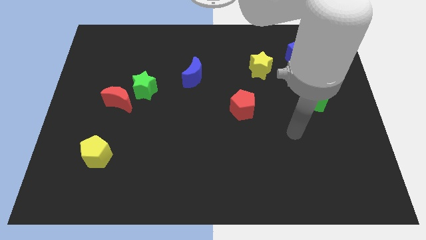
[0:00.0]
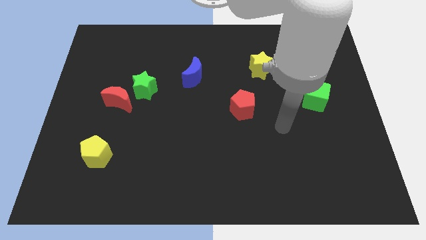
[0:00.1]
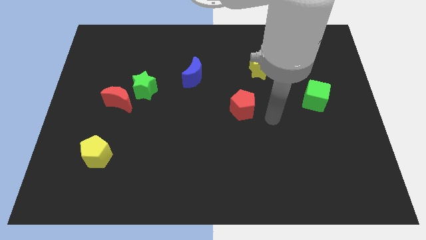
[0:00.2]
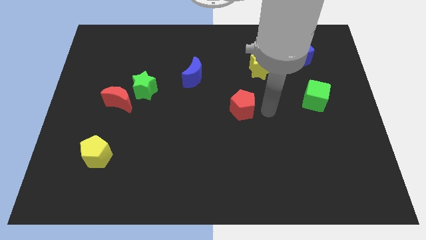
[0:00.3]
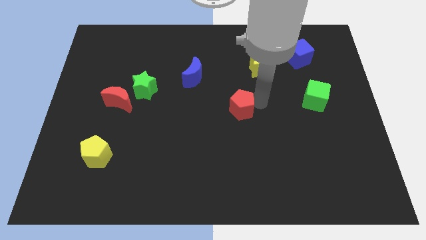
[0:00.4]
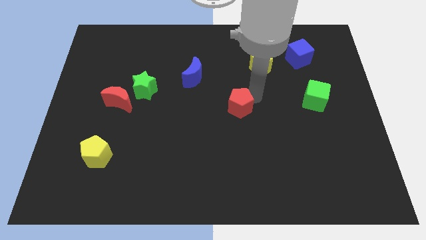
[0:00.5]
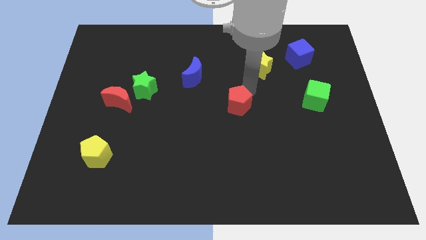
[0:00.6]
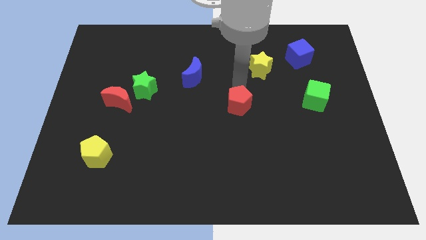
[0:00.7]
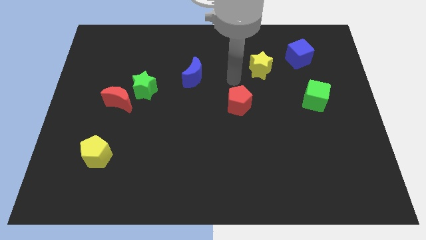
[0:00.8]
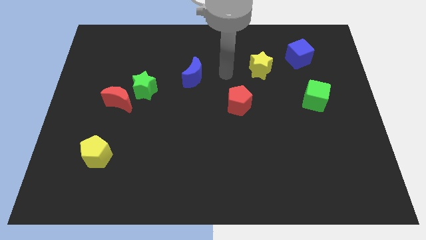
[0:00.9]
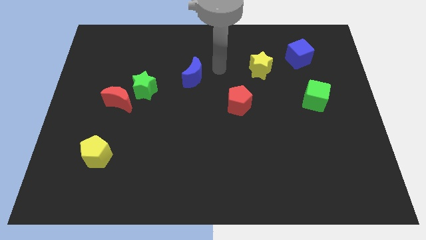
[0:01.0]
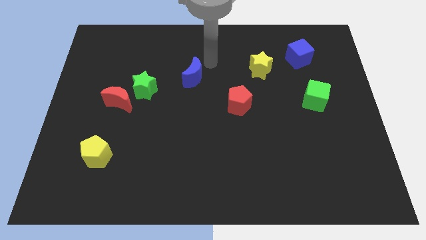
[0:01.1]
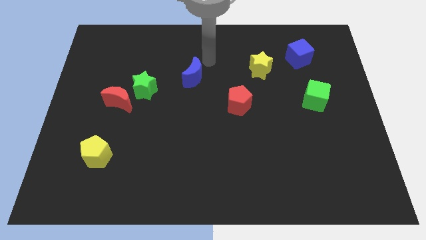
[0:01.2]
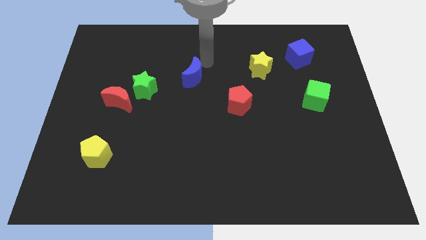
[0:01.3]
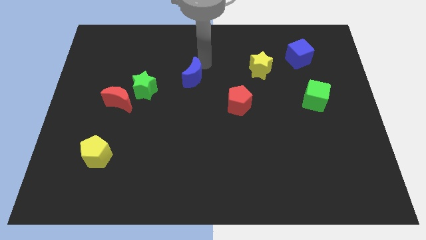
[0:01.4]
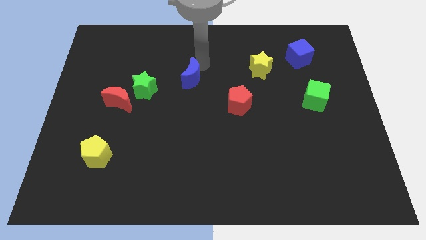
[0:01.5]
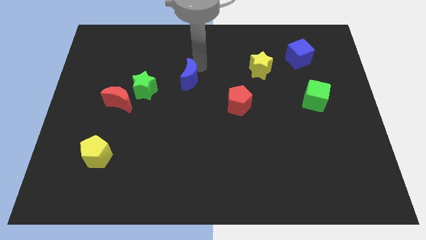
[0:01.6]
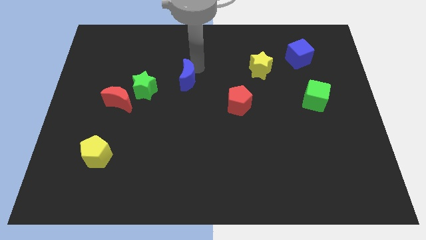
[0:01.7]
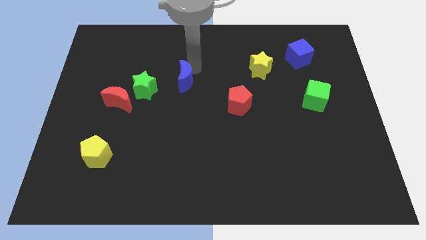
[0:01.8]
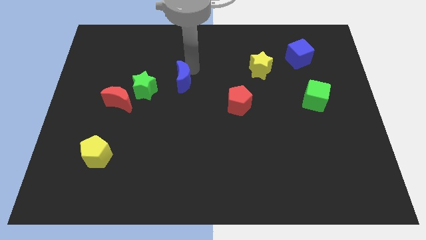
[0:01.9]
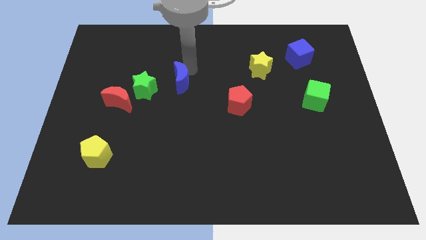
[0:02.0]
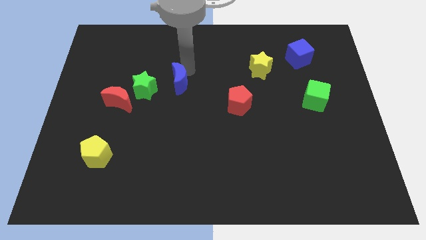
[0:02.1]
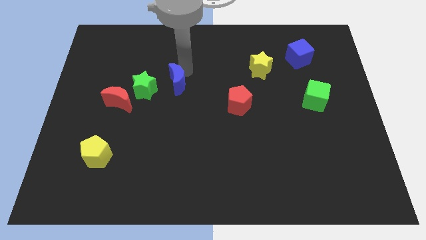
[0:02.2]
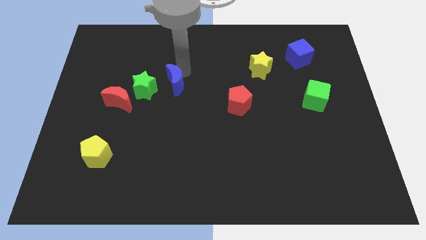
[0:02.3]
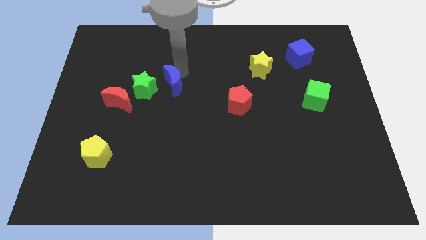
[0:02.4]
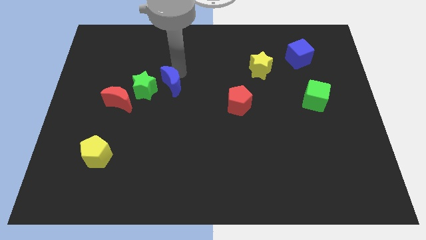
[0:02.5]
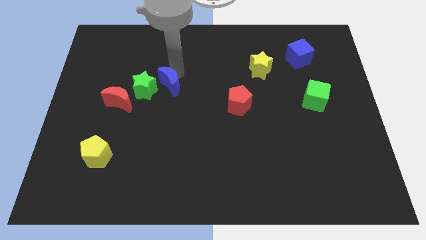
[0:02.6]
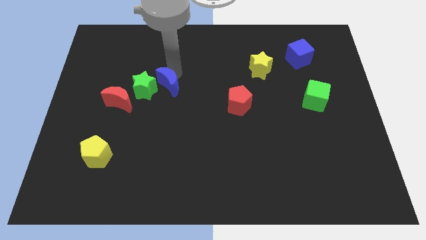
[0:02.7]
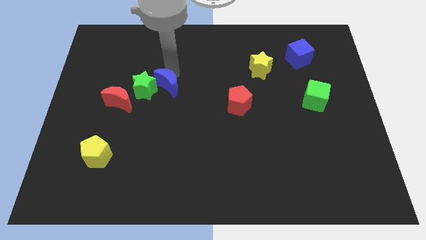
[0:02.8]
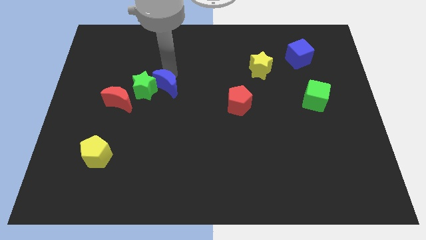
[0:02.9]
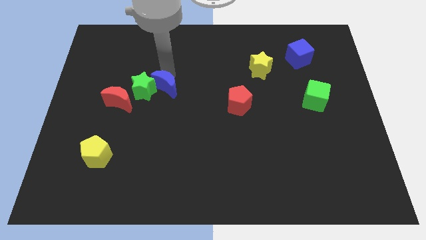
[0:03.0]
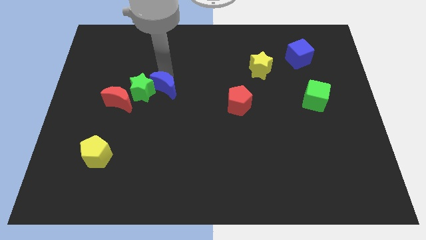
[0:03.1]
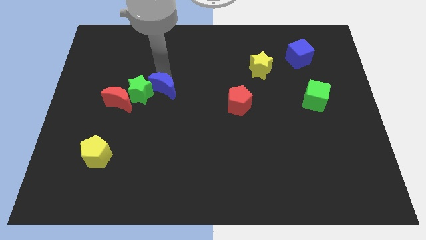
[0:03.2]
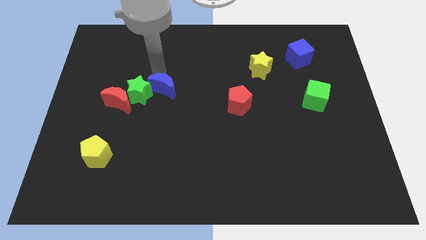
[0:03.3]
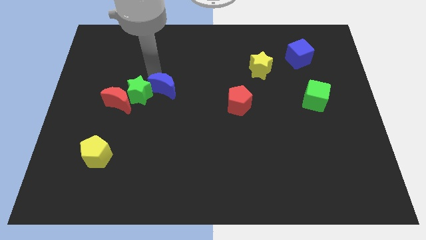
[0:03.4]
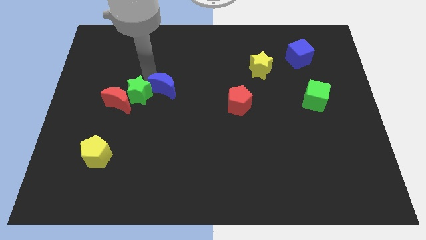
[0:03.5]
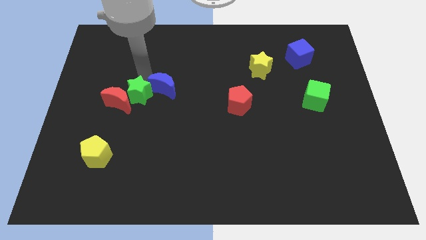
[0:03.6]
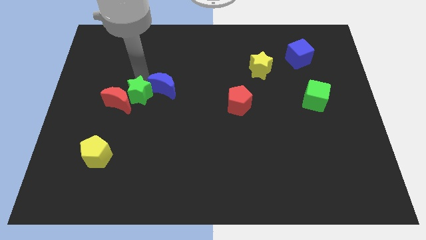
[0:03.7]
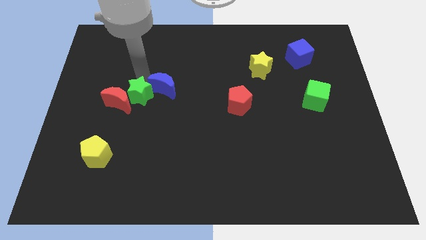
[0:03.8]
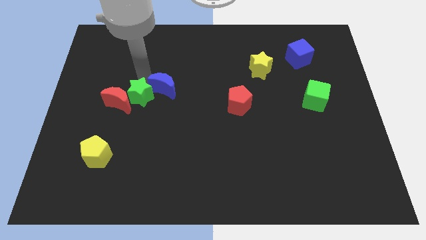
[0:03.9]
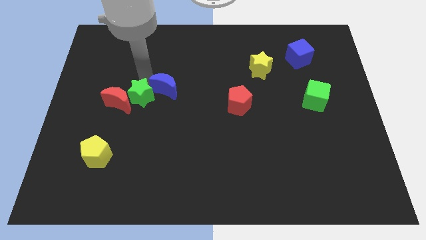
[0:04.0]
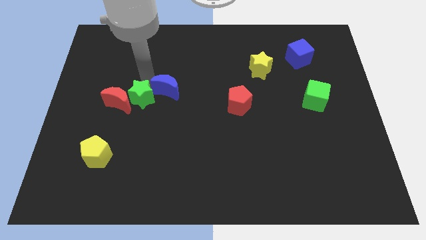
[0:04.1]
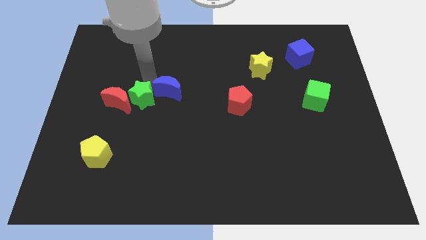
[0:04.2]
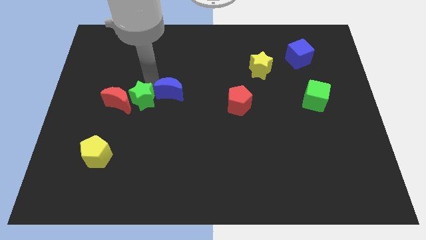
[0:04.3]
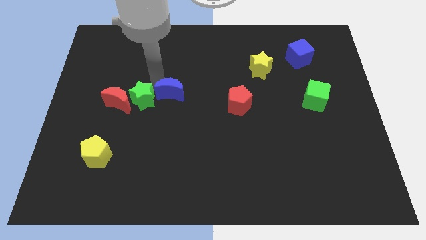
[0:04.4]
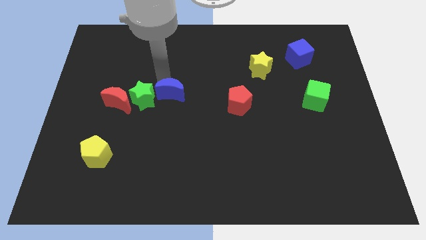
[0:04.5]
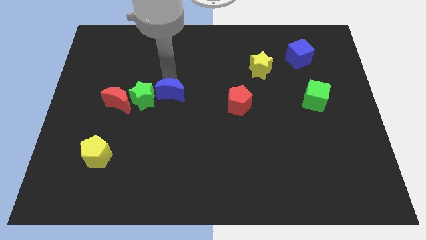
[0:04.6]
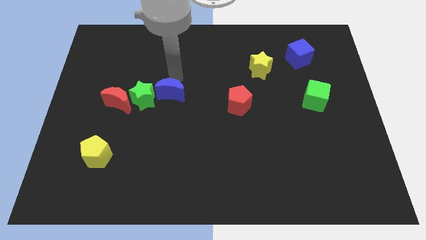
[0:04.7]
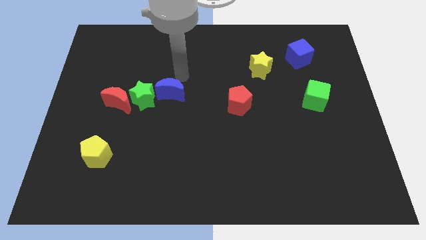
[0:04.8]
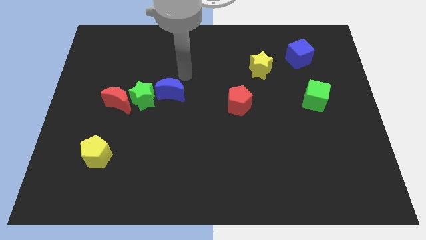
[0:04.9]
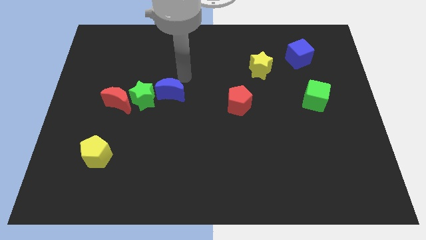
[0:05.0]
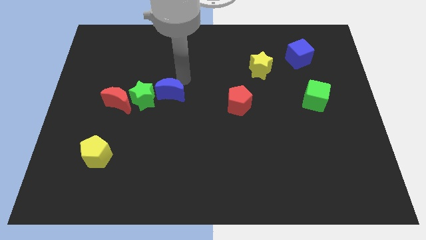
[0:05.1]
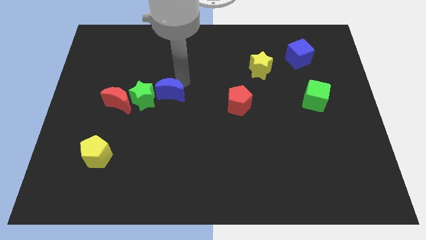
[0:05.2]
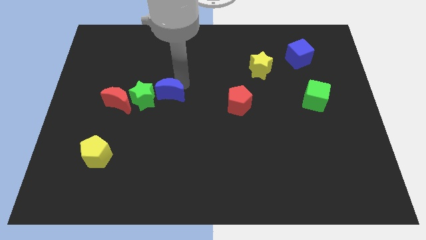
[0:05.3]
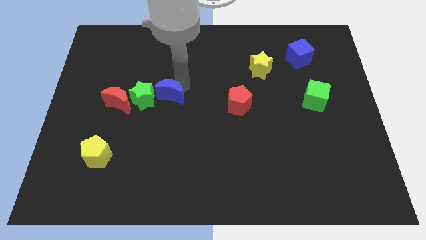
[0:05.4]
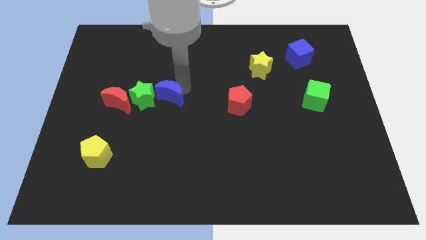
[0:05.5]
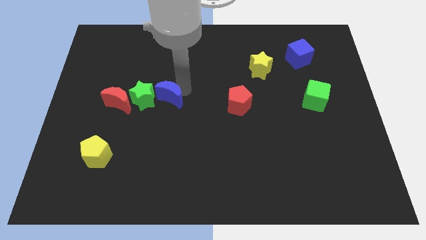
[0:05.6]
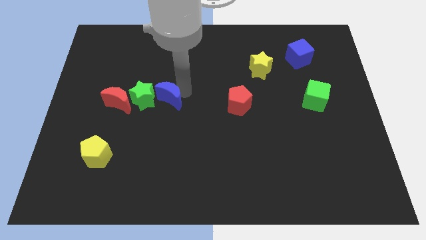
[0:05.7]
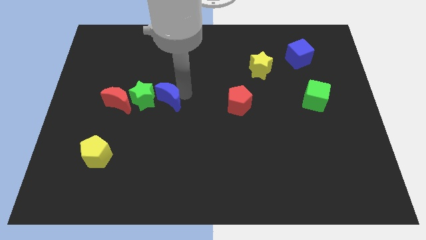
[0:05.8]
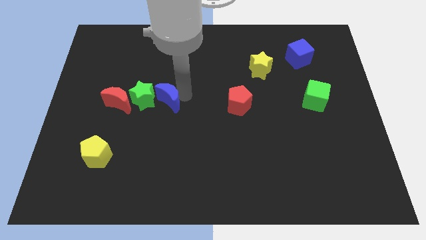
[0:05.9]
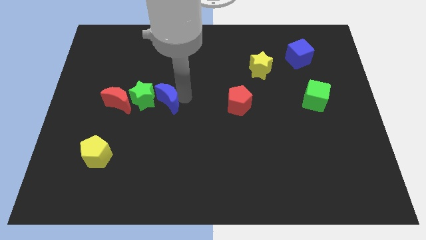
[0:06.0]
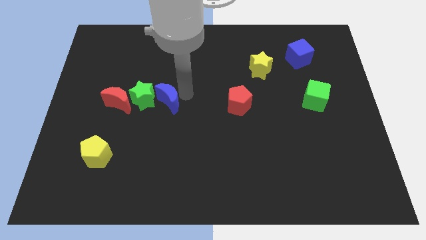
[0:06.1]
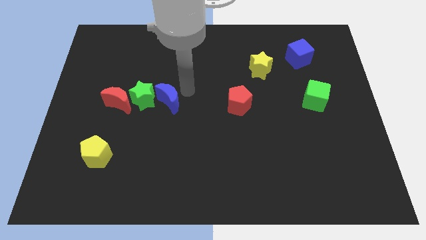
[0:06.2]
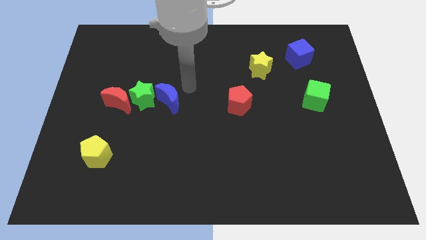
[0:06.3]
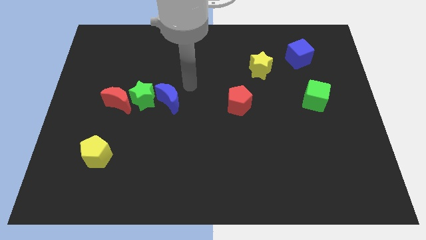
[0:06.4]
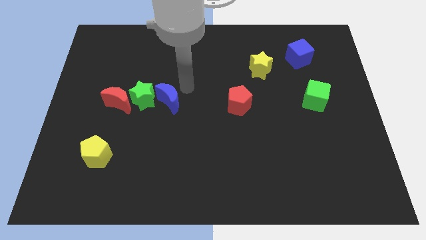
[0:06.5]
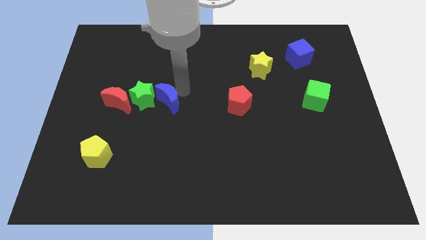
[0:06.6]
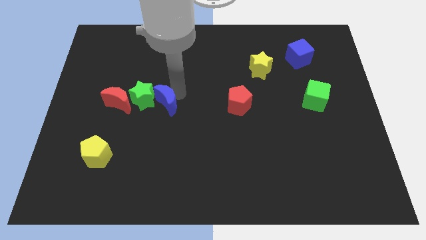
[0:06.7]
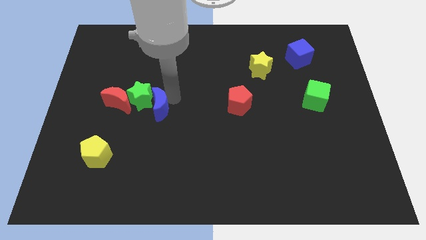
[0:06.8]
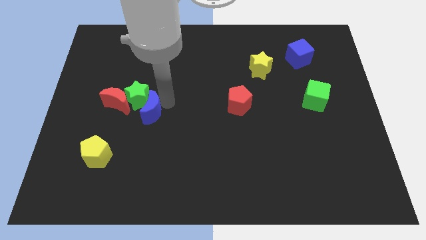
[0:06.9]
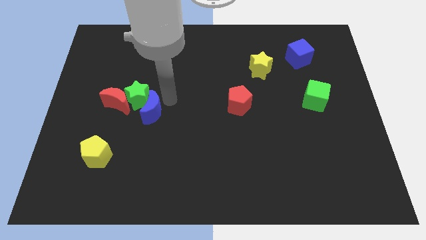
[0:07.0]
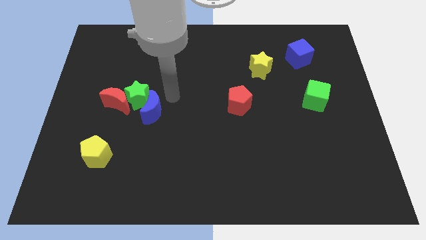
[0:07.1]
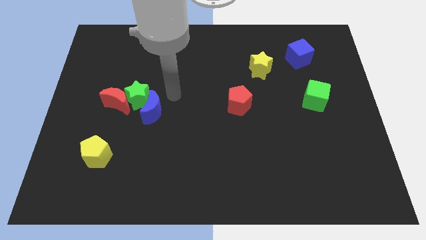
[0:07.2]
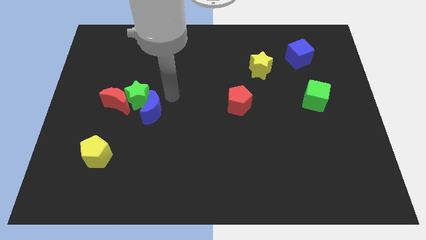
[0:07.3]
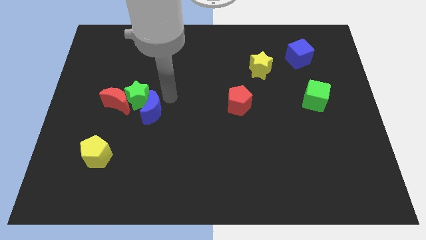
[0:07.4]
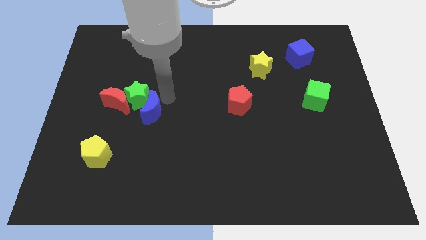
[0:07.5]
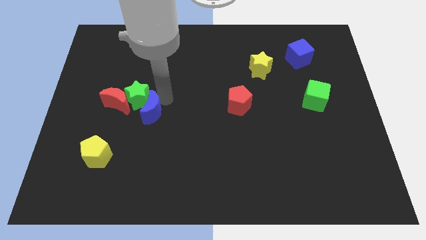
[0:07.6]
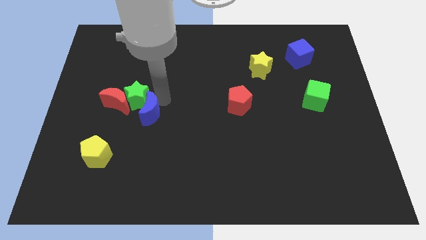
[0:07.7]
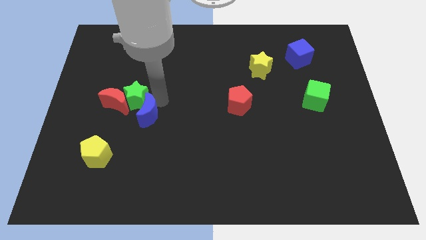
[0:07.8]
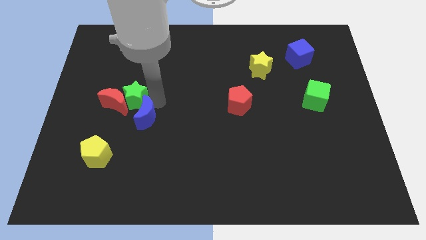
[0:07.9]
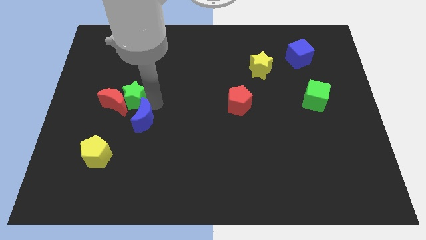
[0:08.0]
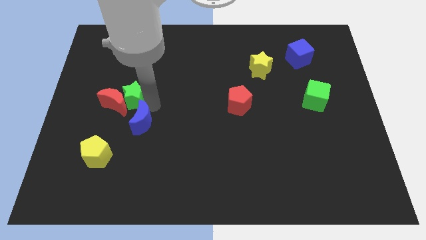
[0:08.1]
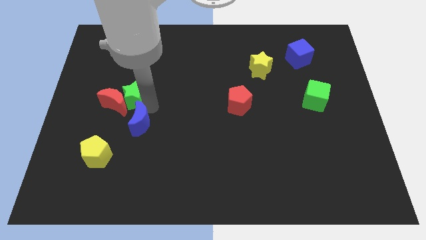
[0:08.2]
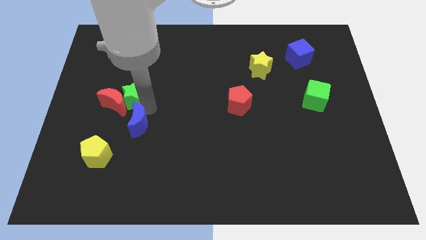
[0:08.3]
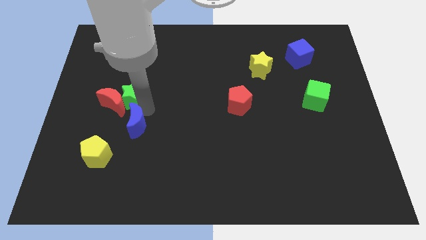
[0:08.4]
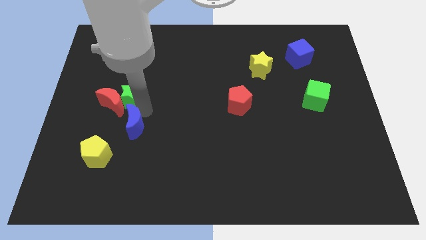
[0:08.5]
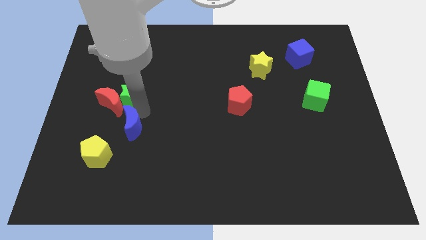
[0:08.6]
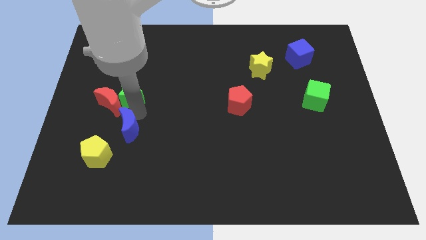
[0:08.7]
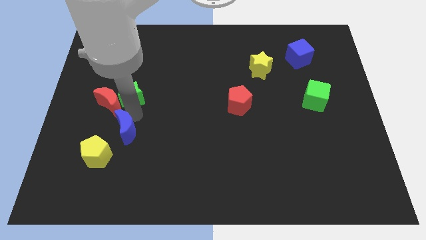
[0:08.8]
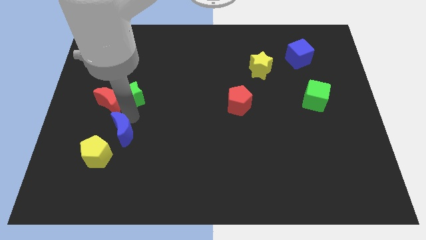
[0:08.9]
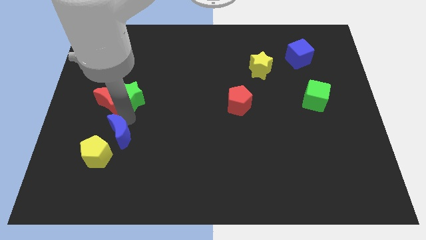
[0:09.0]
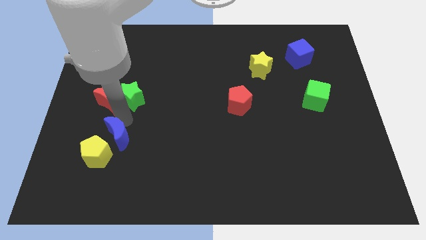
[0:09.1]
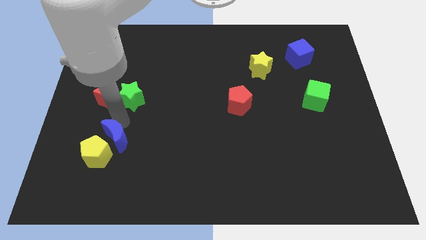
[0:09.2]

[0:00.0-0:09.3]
put the blue moon close to the yellow pentagon
